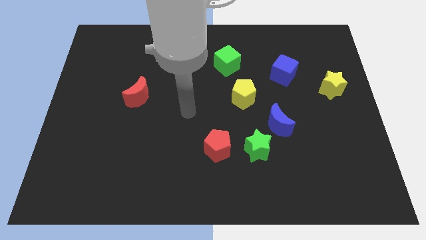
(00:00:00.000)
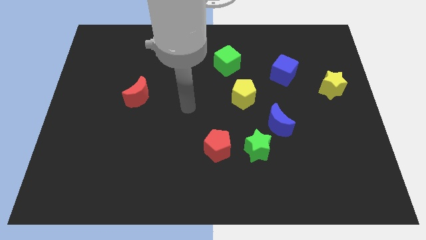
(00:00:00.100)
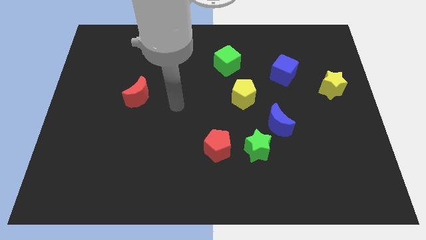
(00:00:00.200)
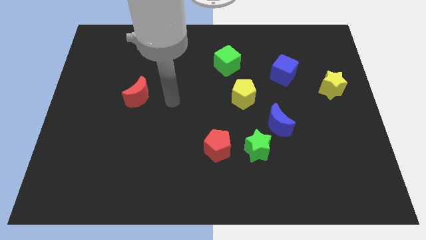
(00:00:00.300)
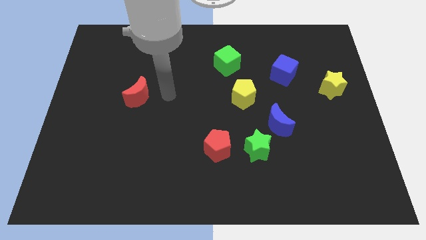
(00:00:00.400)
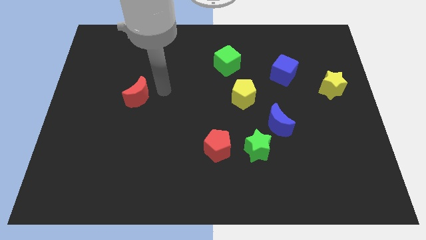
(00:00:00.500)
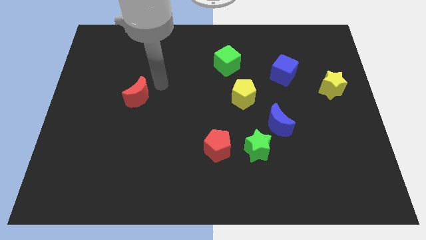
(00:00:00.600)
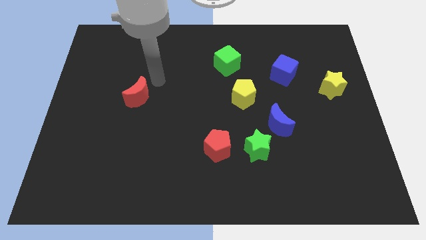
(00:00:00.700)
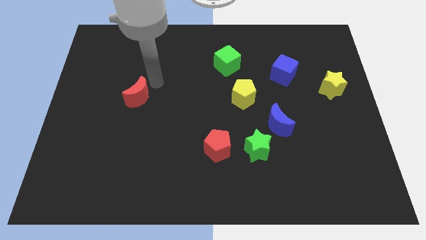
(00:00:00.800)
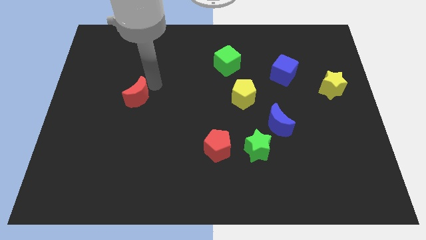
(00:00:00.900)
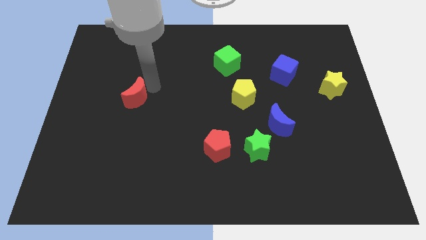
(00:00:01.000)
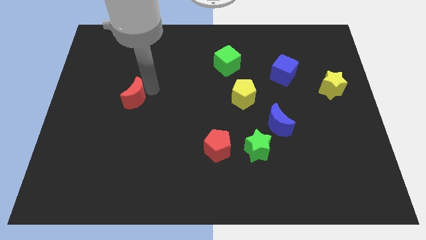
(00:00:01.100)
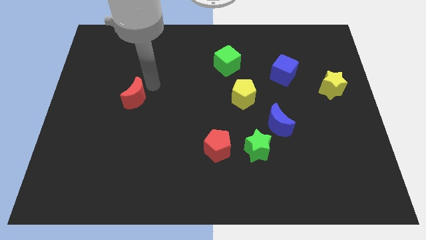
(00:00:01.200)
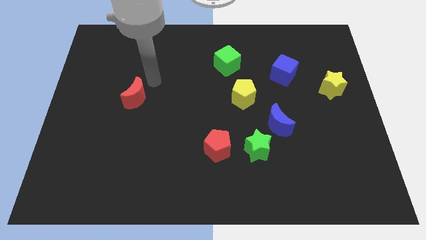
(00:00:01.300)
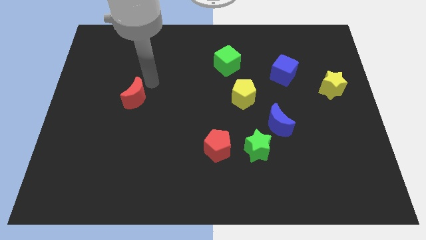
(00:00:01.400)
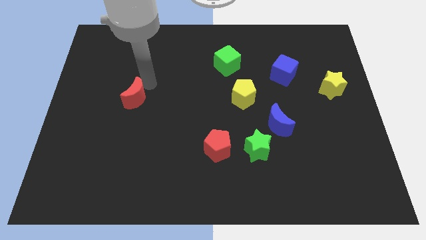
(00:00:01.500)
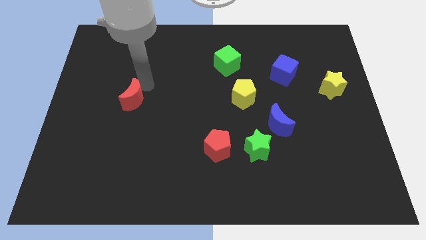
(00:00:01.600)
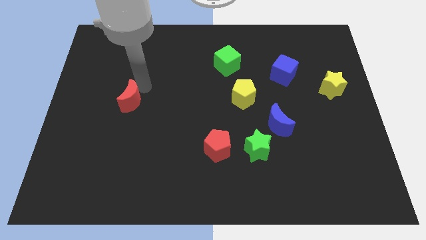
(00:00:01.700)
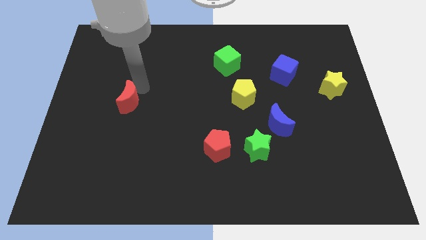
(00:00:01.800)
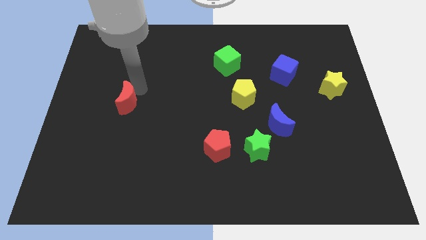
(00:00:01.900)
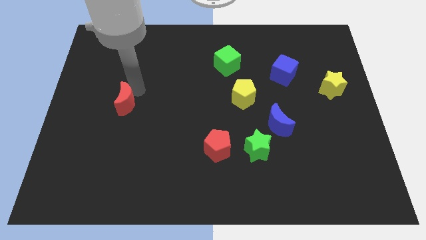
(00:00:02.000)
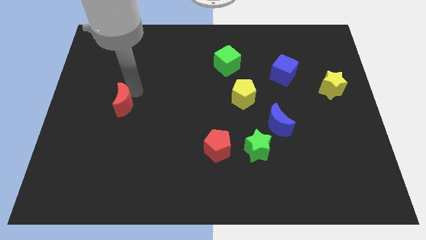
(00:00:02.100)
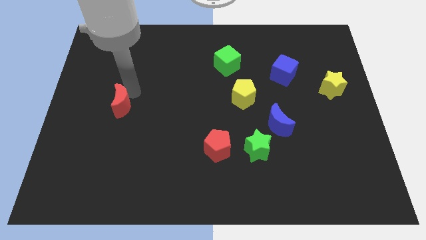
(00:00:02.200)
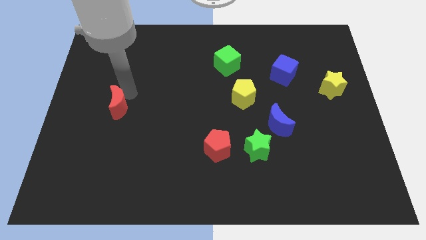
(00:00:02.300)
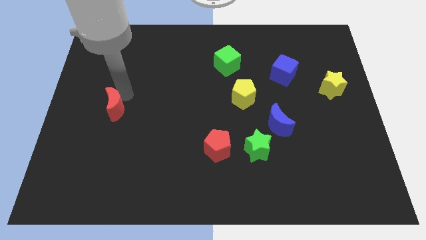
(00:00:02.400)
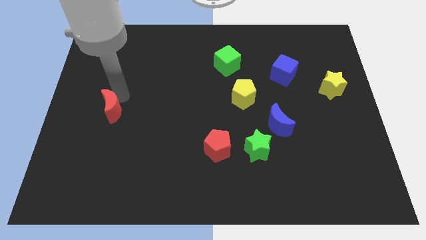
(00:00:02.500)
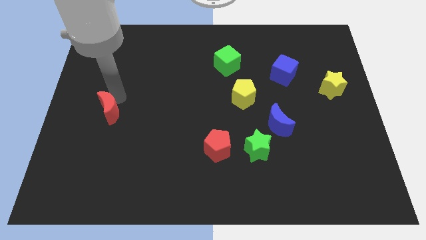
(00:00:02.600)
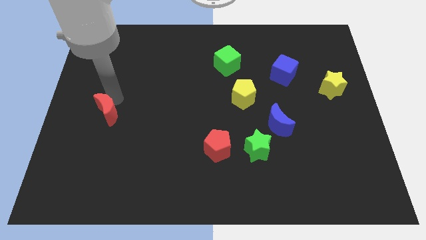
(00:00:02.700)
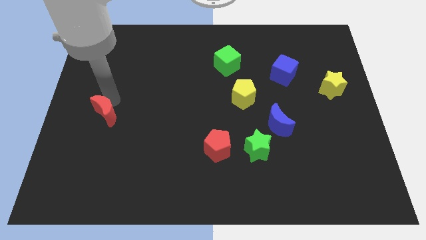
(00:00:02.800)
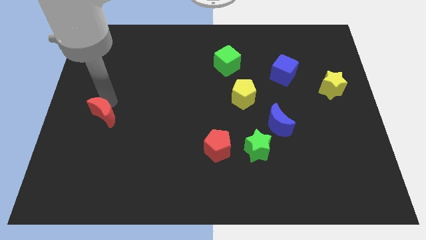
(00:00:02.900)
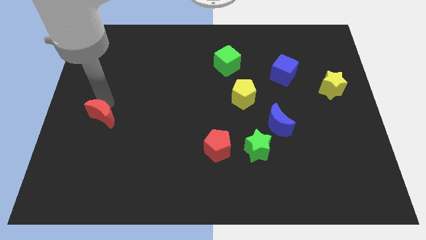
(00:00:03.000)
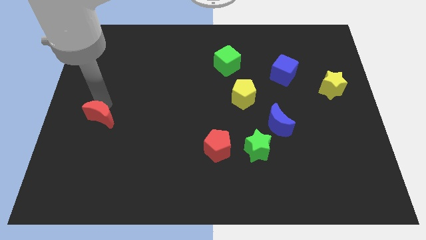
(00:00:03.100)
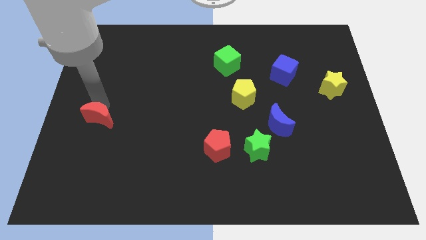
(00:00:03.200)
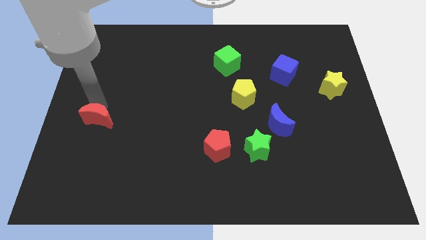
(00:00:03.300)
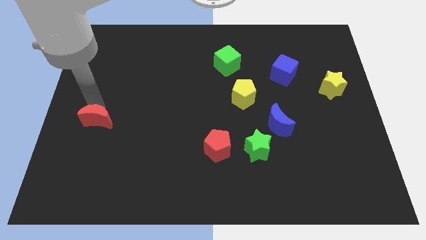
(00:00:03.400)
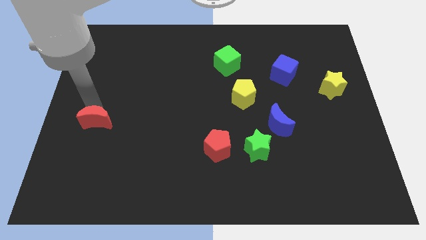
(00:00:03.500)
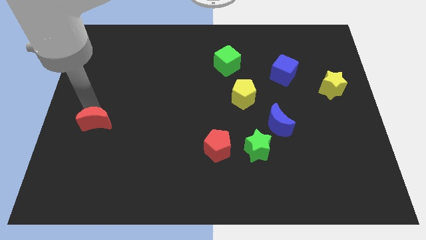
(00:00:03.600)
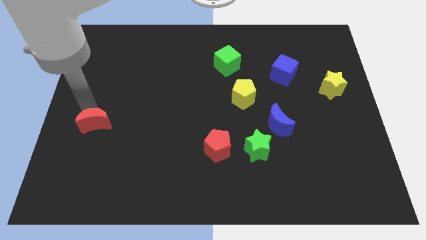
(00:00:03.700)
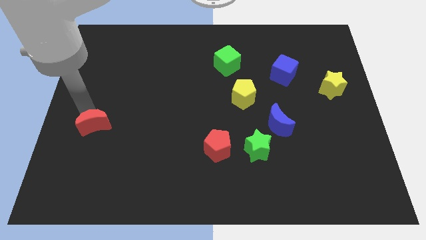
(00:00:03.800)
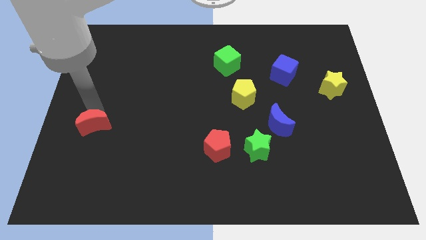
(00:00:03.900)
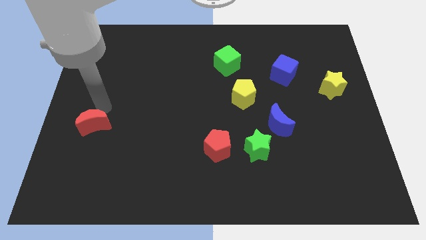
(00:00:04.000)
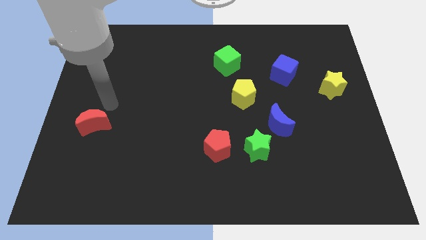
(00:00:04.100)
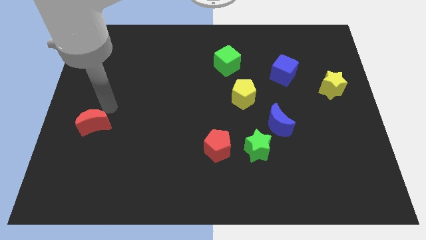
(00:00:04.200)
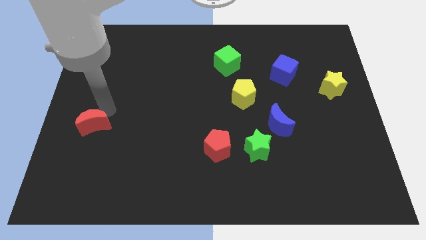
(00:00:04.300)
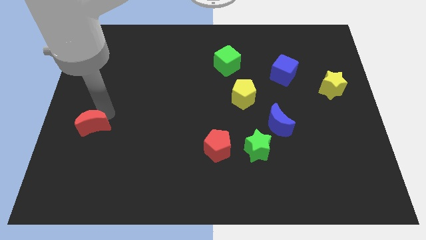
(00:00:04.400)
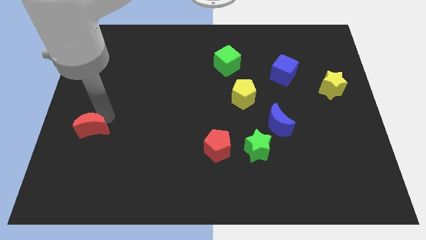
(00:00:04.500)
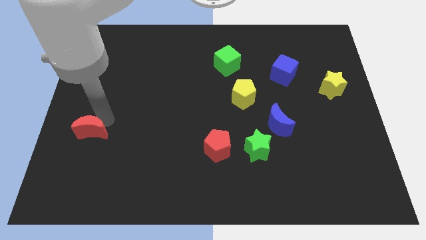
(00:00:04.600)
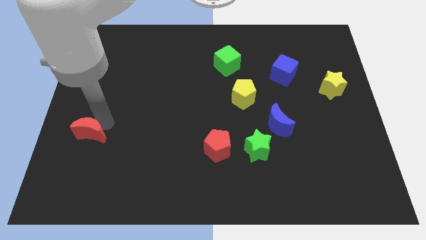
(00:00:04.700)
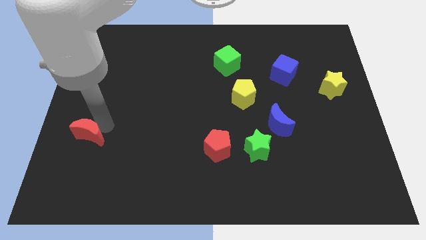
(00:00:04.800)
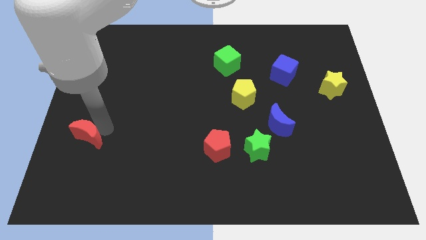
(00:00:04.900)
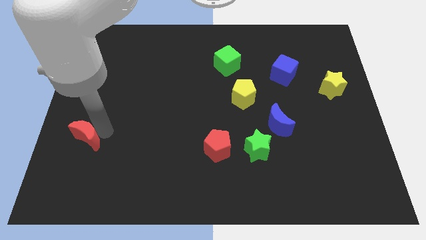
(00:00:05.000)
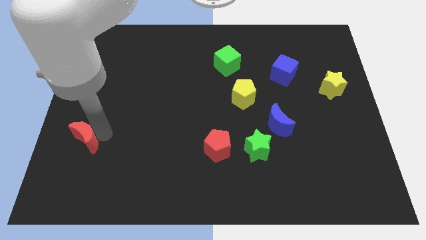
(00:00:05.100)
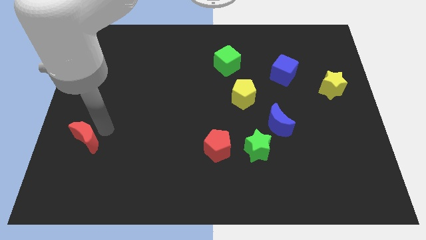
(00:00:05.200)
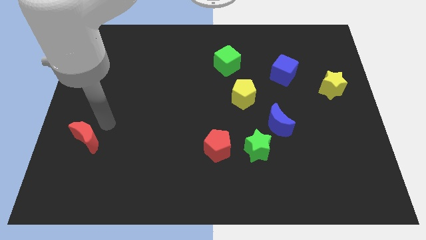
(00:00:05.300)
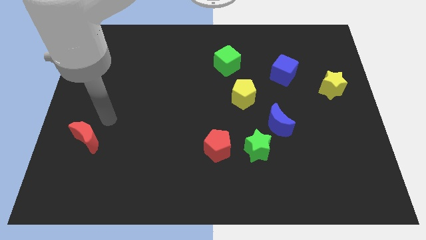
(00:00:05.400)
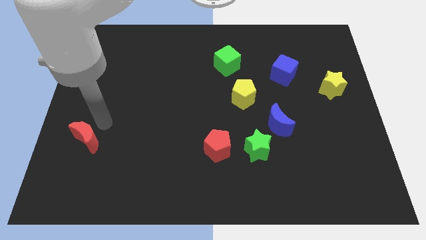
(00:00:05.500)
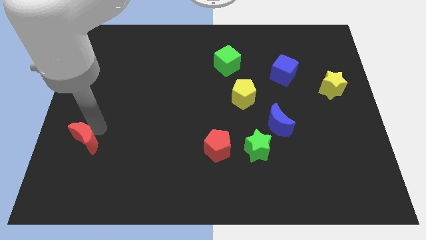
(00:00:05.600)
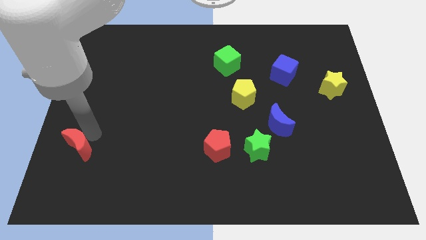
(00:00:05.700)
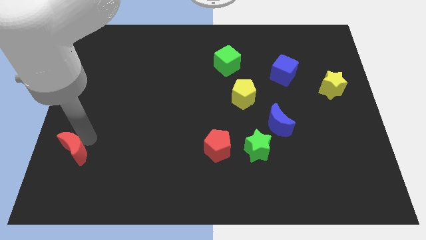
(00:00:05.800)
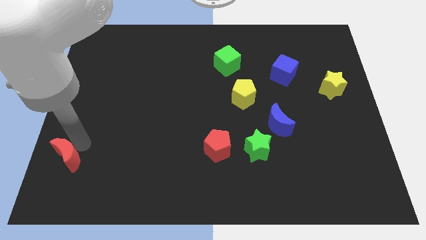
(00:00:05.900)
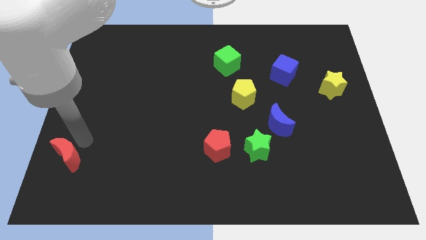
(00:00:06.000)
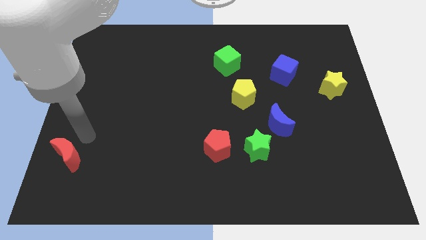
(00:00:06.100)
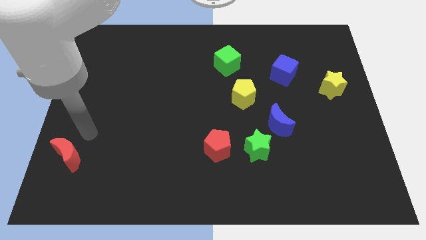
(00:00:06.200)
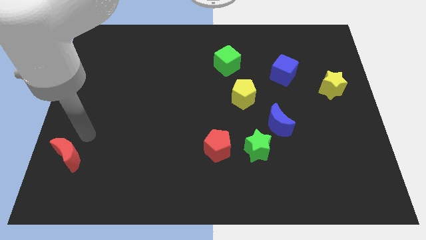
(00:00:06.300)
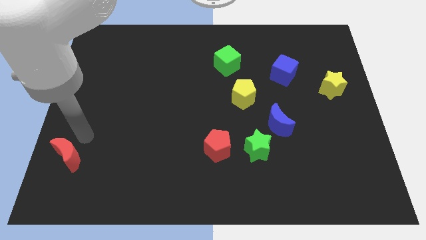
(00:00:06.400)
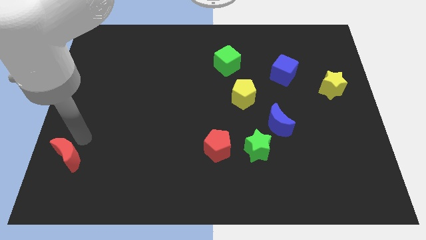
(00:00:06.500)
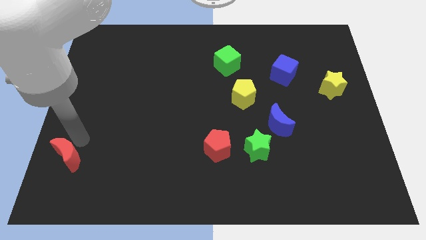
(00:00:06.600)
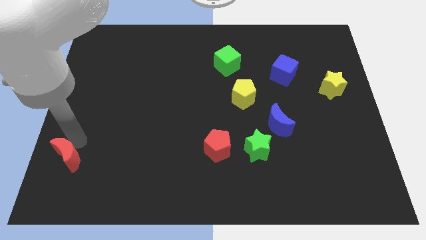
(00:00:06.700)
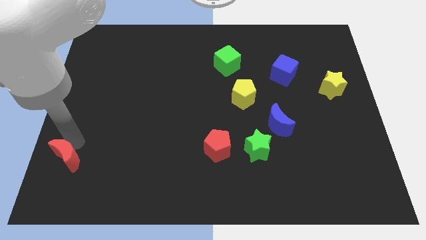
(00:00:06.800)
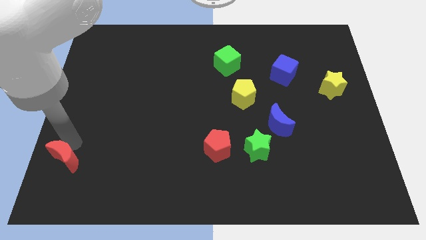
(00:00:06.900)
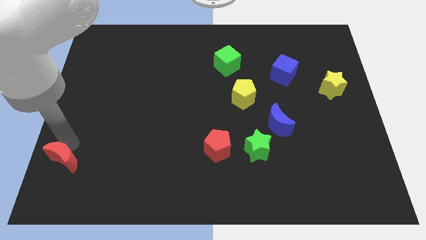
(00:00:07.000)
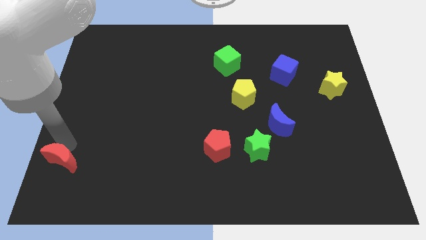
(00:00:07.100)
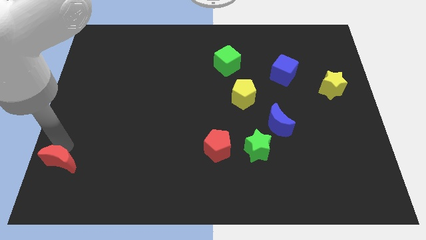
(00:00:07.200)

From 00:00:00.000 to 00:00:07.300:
slide the red moon to the lower left corner
